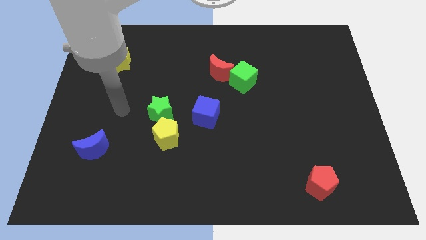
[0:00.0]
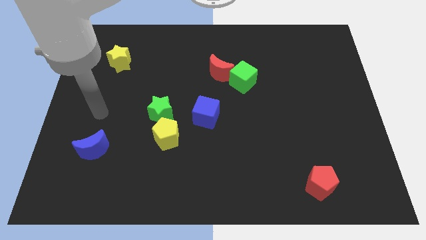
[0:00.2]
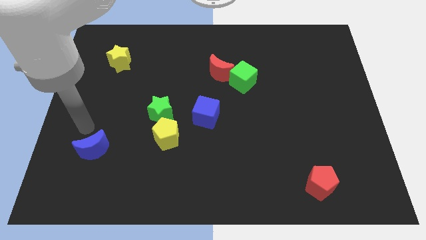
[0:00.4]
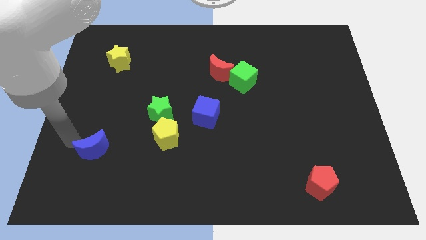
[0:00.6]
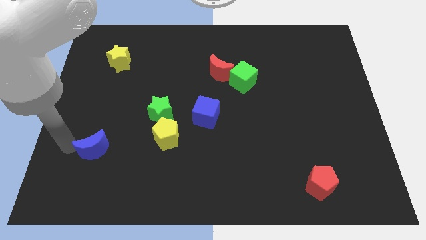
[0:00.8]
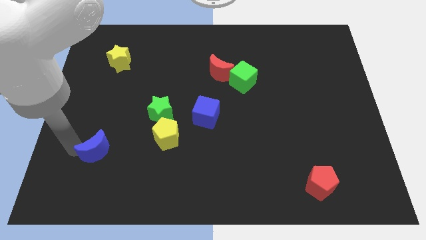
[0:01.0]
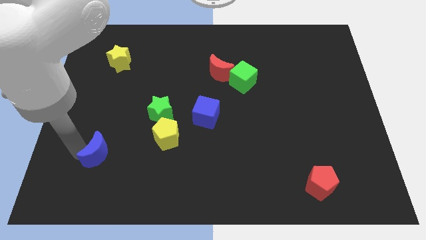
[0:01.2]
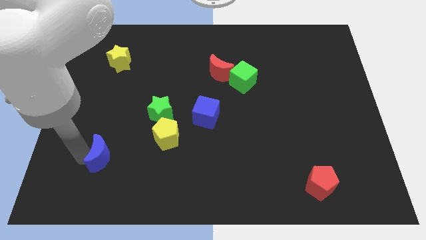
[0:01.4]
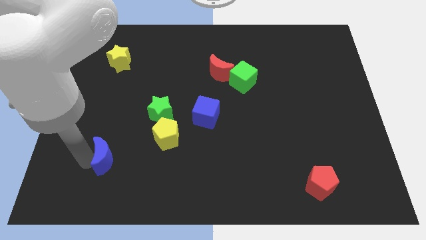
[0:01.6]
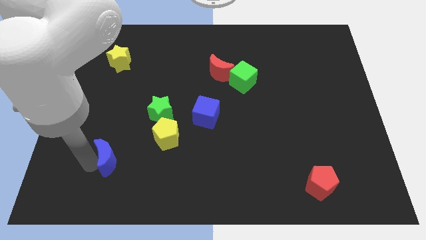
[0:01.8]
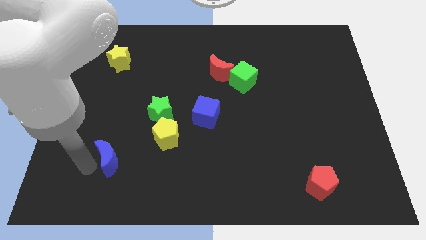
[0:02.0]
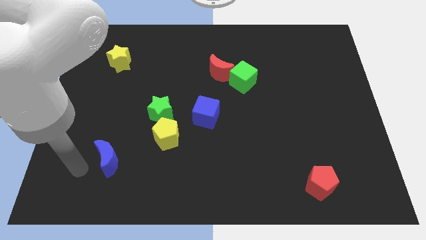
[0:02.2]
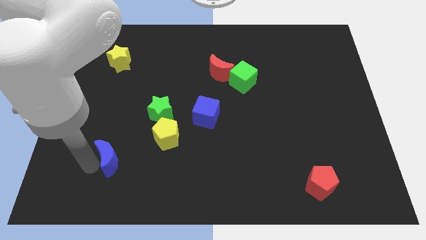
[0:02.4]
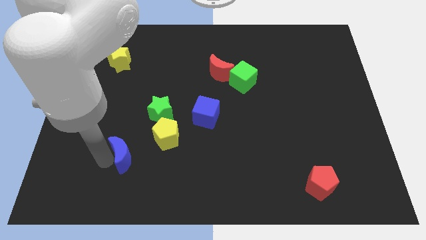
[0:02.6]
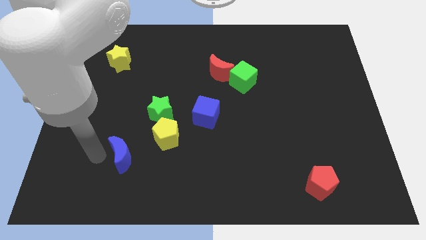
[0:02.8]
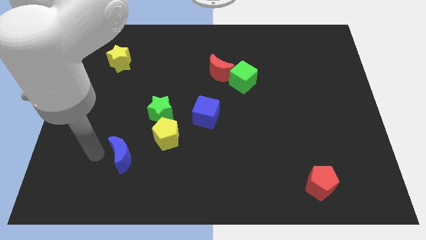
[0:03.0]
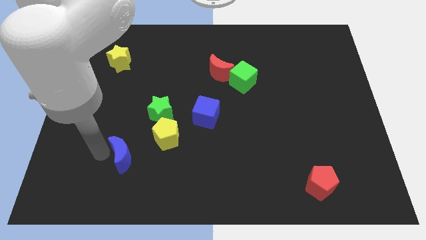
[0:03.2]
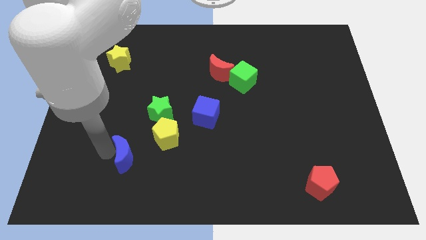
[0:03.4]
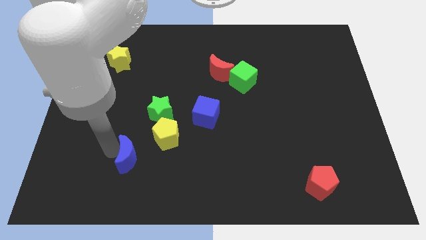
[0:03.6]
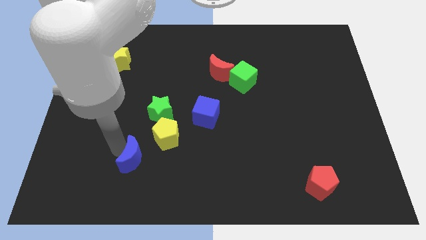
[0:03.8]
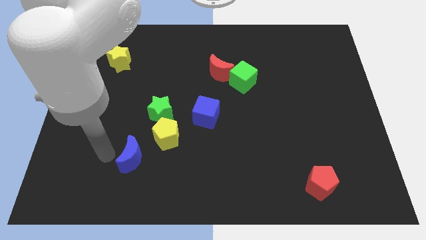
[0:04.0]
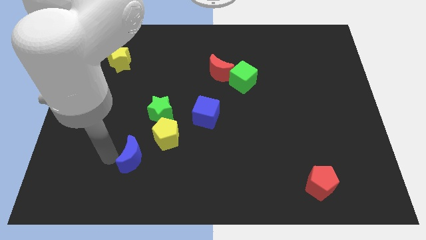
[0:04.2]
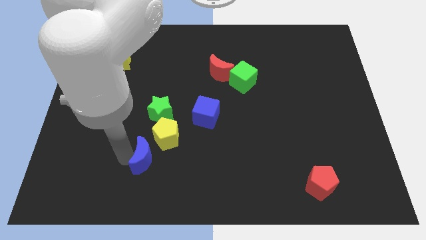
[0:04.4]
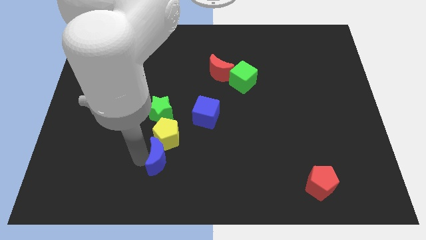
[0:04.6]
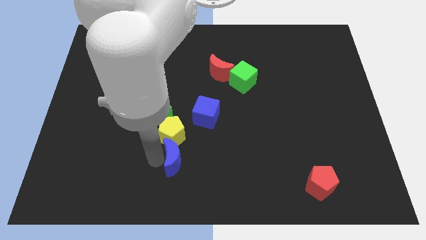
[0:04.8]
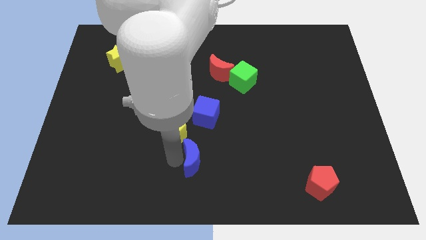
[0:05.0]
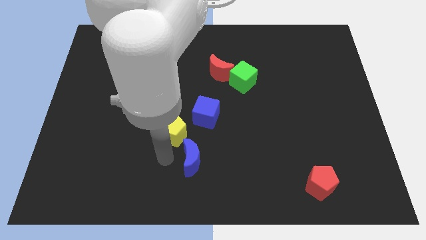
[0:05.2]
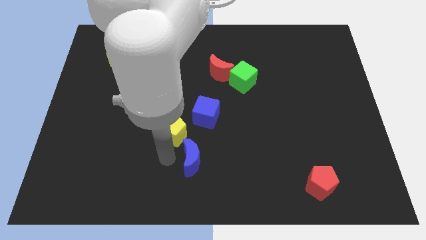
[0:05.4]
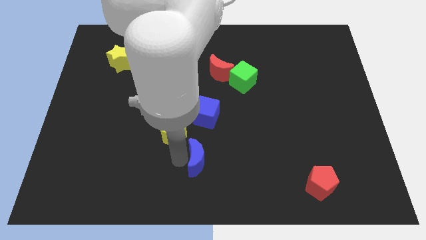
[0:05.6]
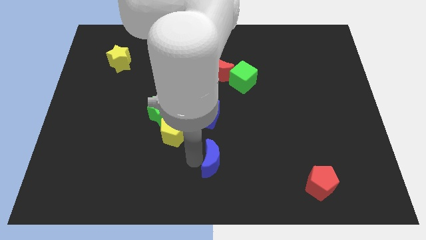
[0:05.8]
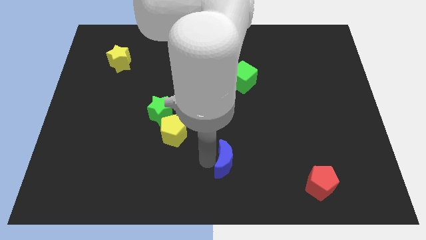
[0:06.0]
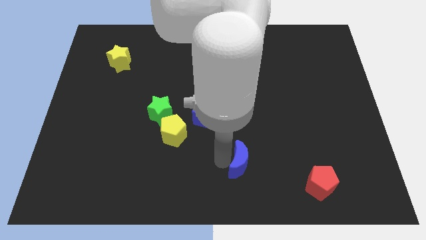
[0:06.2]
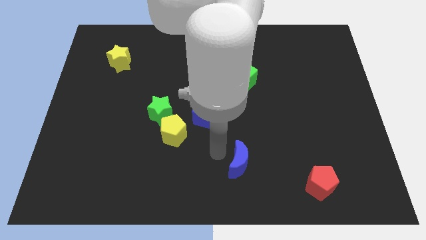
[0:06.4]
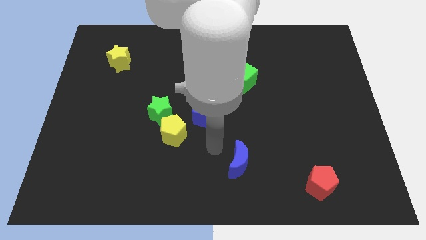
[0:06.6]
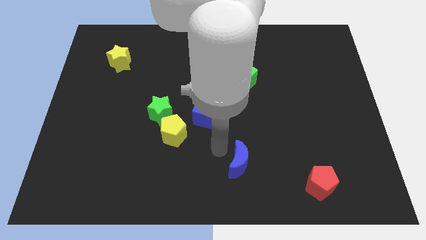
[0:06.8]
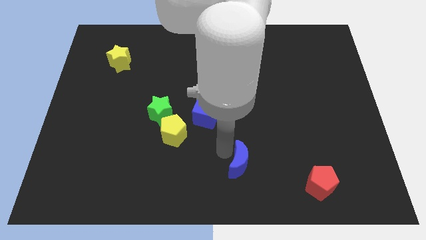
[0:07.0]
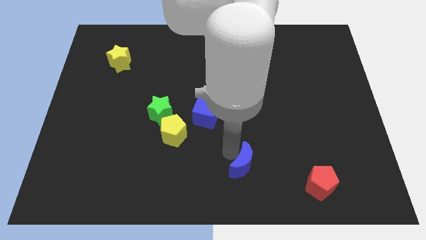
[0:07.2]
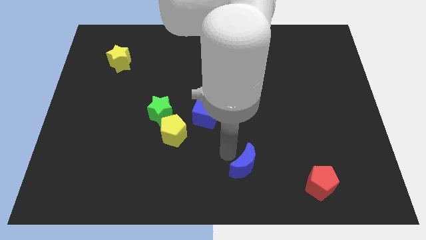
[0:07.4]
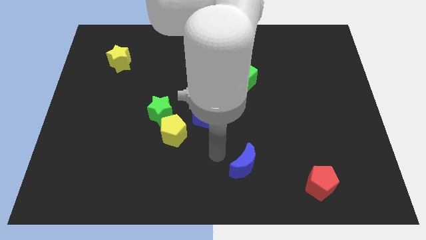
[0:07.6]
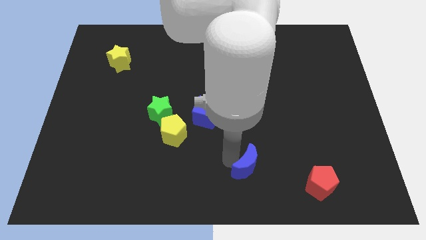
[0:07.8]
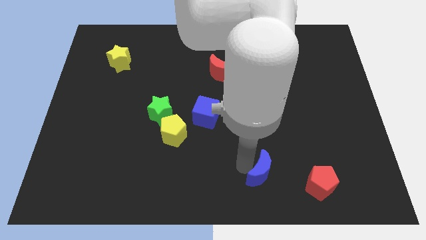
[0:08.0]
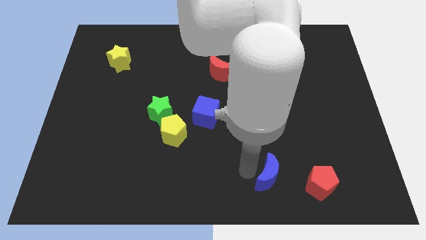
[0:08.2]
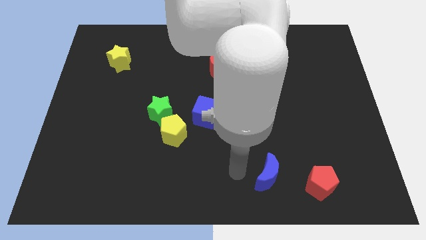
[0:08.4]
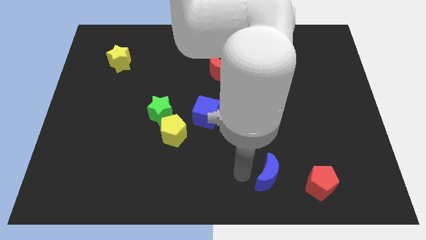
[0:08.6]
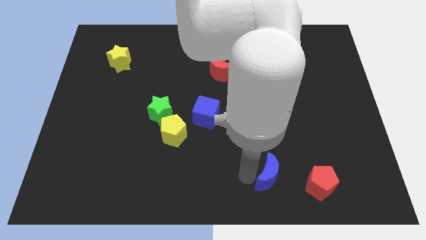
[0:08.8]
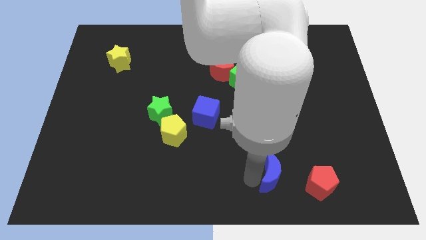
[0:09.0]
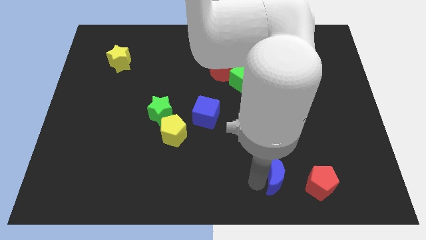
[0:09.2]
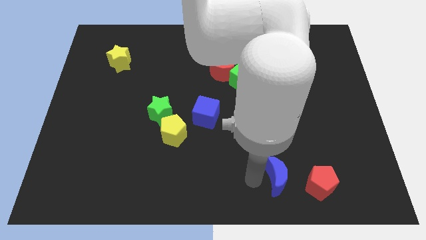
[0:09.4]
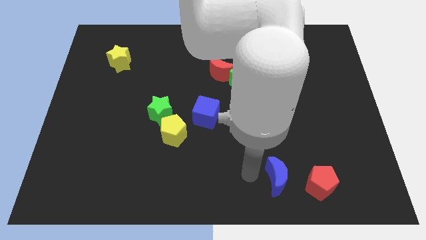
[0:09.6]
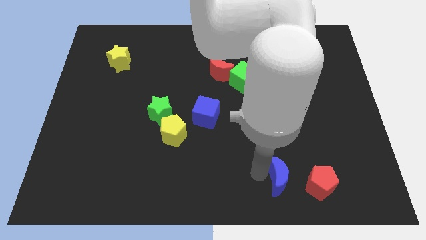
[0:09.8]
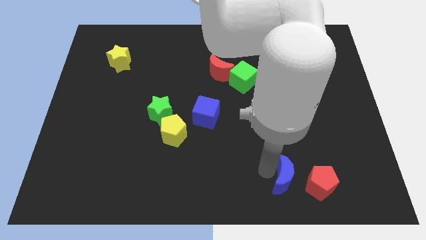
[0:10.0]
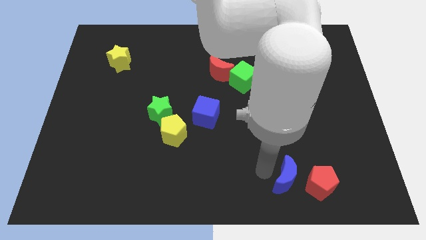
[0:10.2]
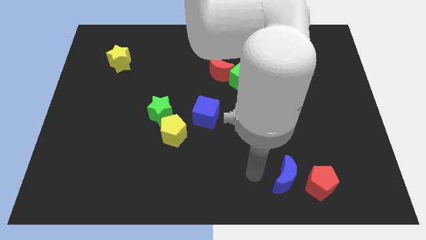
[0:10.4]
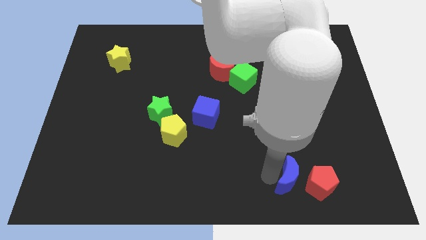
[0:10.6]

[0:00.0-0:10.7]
push the blue moon close to the red pentagon

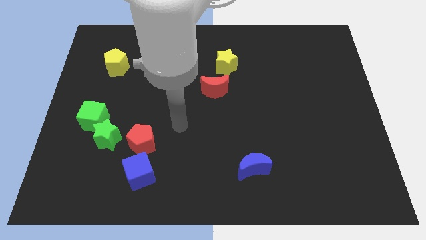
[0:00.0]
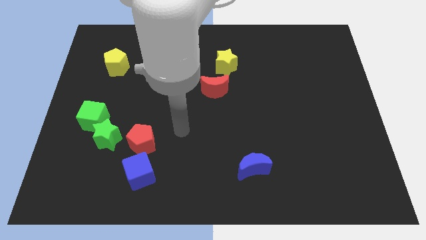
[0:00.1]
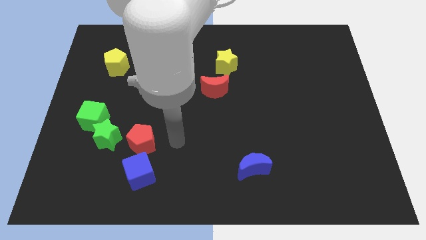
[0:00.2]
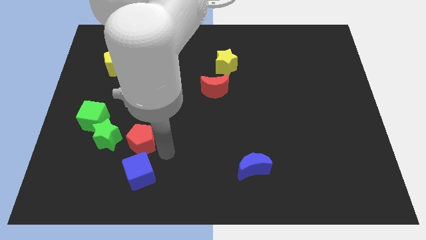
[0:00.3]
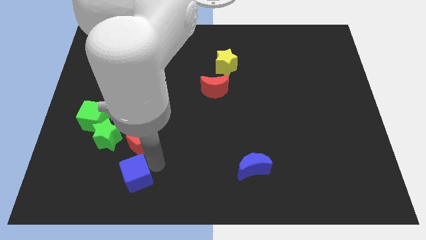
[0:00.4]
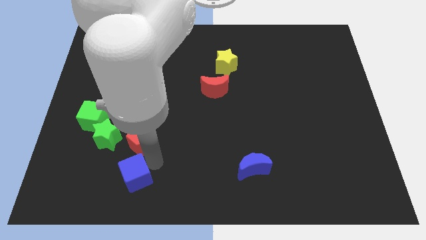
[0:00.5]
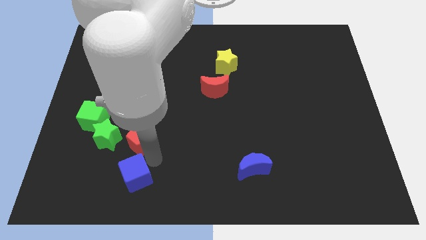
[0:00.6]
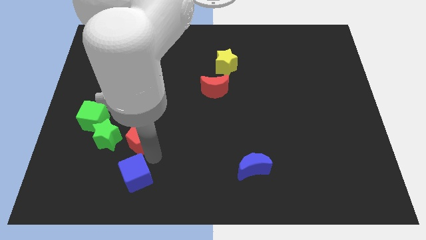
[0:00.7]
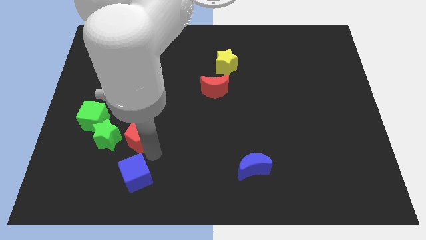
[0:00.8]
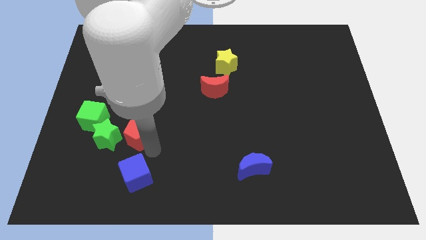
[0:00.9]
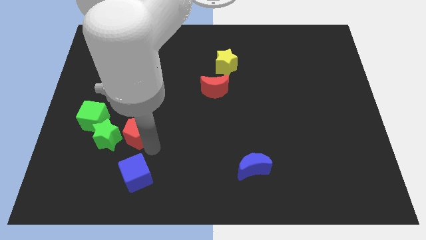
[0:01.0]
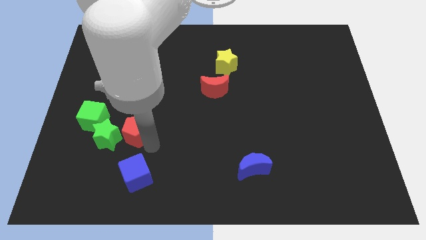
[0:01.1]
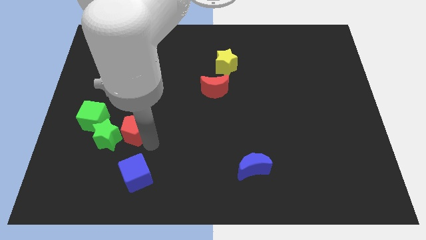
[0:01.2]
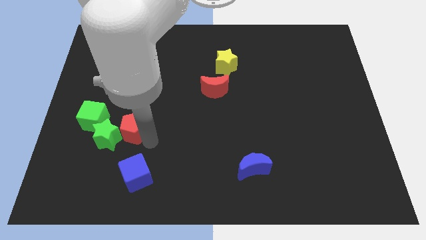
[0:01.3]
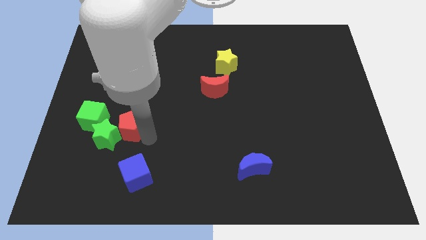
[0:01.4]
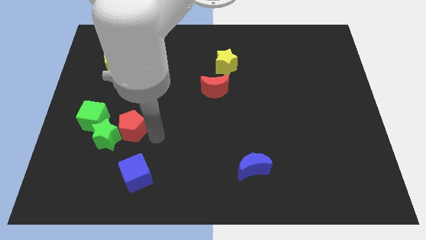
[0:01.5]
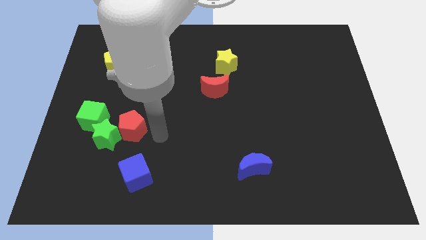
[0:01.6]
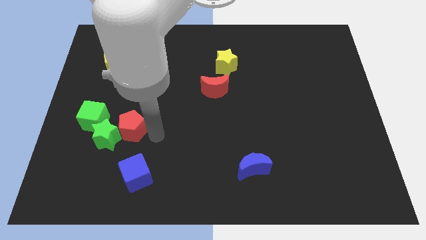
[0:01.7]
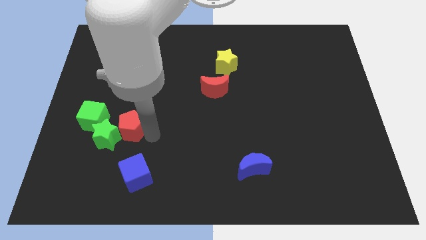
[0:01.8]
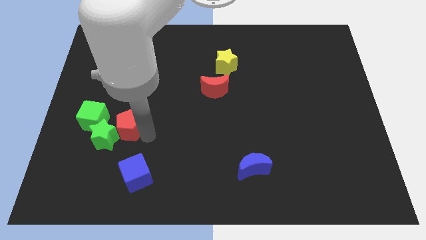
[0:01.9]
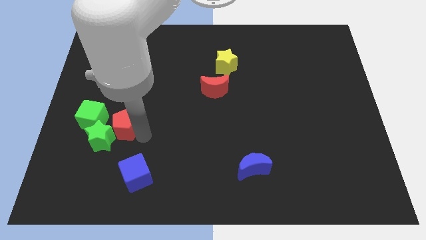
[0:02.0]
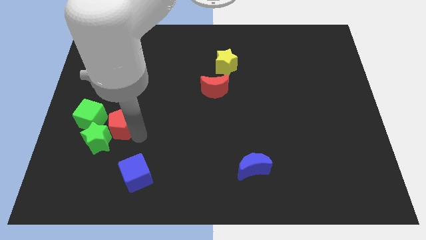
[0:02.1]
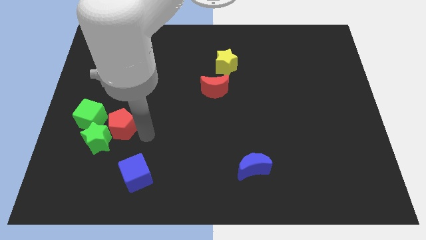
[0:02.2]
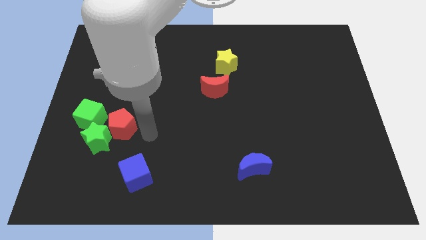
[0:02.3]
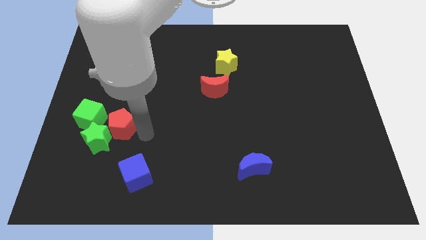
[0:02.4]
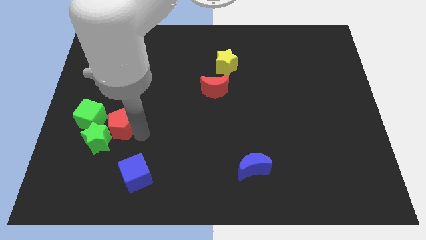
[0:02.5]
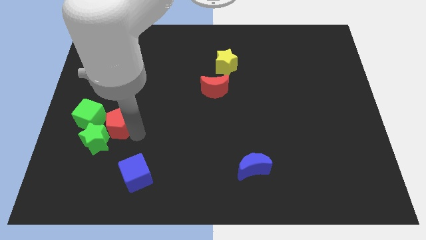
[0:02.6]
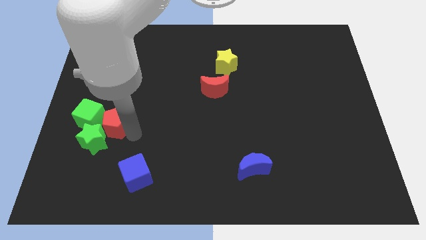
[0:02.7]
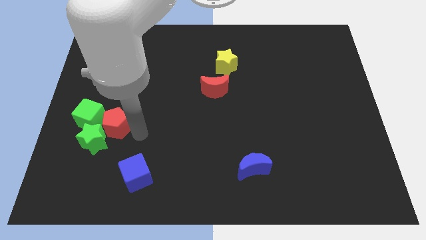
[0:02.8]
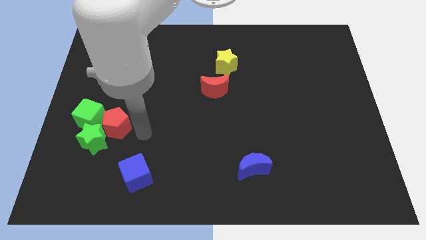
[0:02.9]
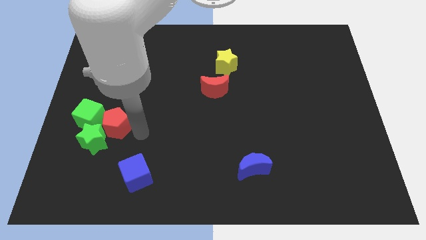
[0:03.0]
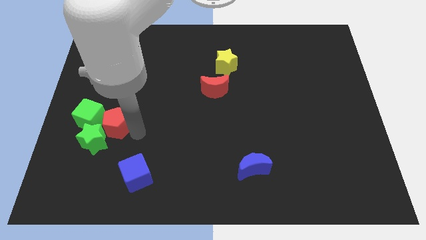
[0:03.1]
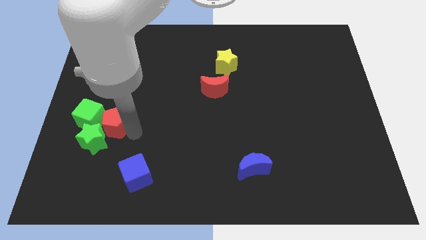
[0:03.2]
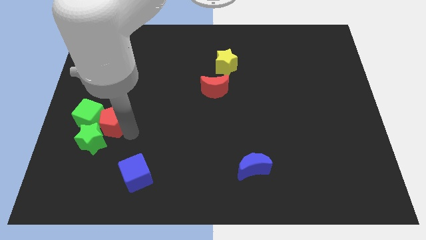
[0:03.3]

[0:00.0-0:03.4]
slide the red pentagon to the green cube
